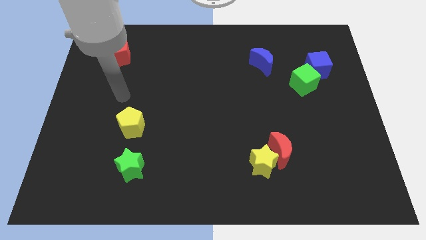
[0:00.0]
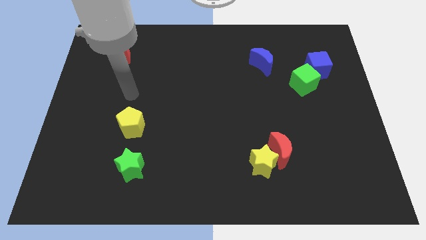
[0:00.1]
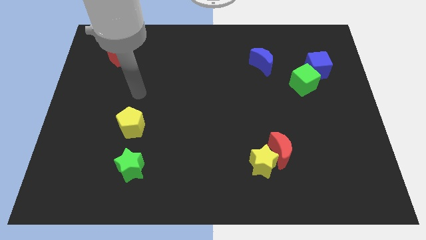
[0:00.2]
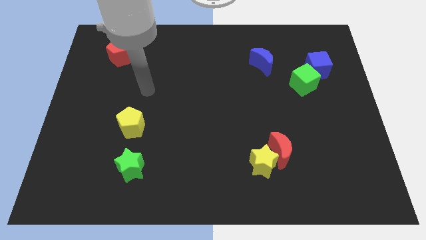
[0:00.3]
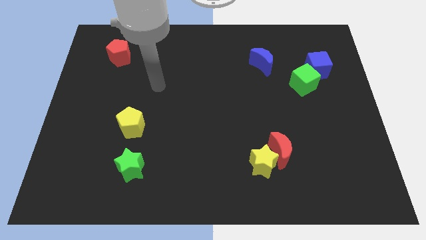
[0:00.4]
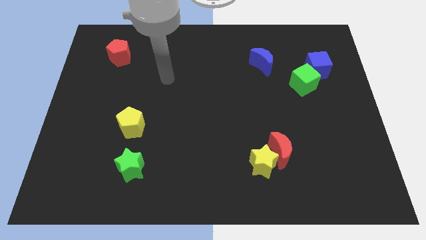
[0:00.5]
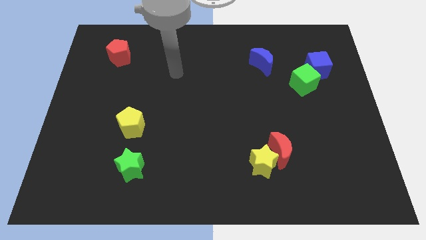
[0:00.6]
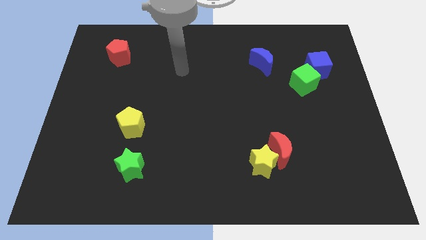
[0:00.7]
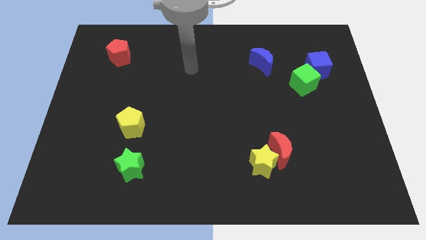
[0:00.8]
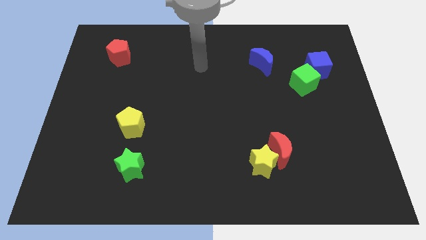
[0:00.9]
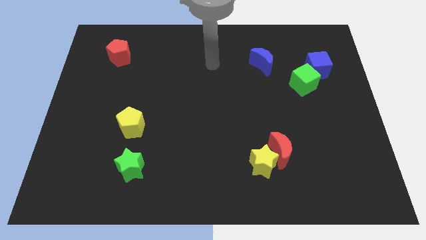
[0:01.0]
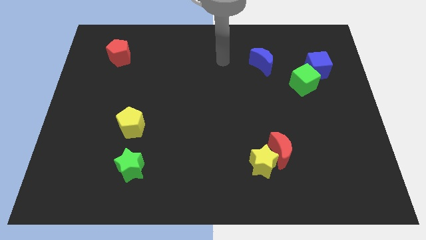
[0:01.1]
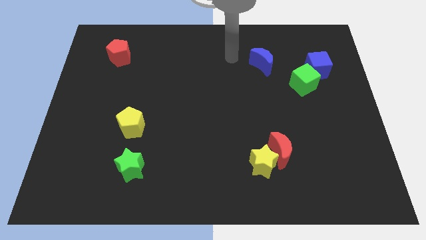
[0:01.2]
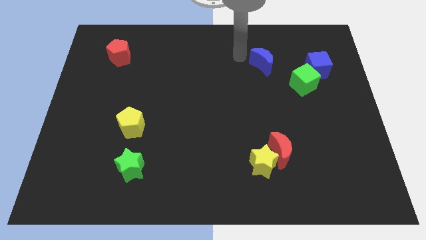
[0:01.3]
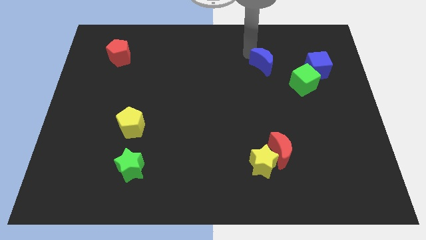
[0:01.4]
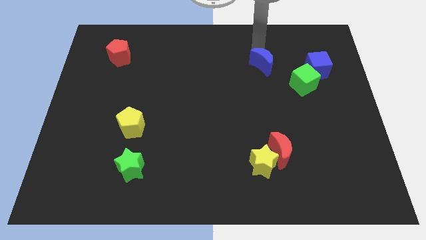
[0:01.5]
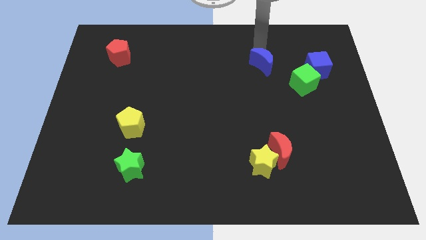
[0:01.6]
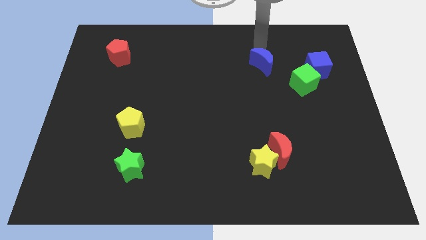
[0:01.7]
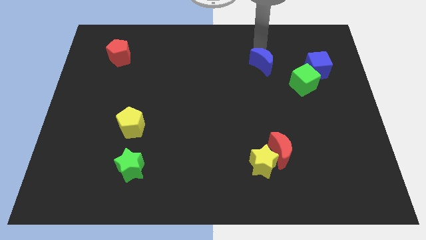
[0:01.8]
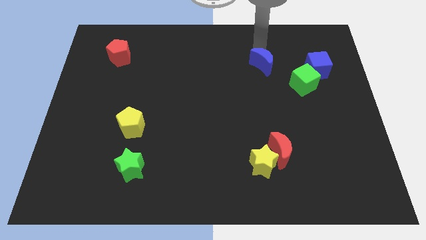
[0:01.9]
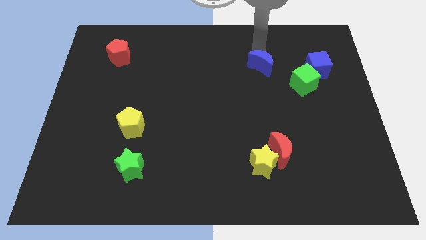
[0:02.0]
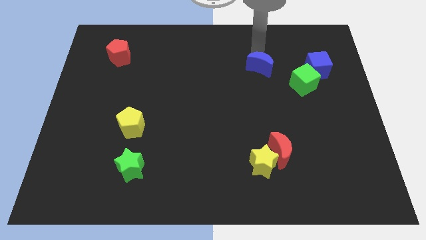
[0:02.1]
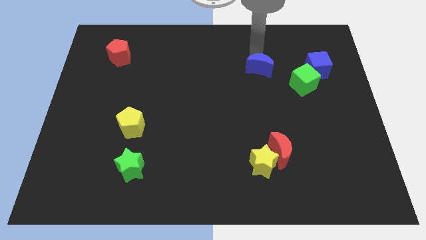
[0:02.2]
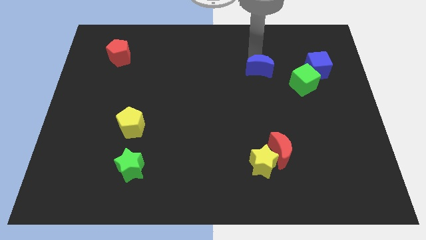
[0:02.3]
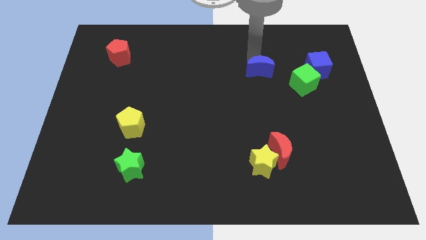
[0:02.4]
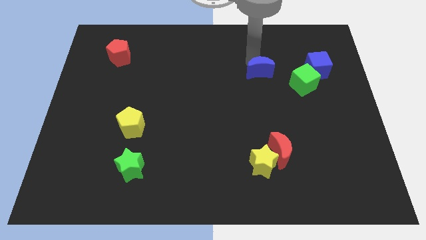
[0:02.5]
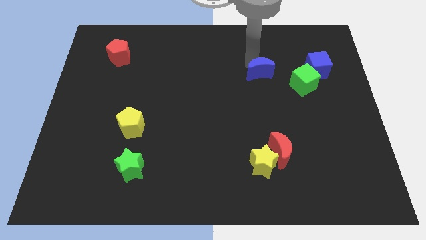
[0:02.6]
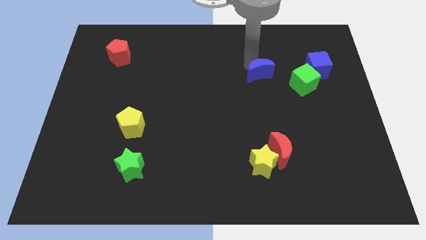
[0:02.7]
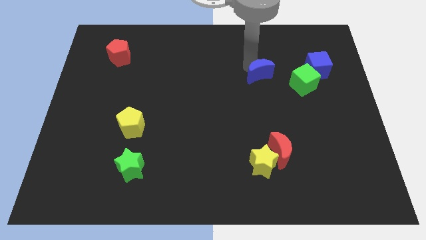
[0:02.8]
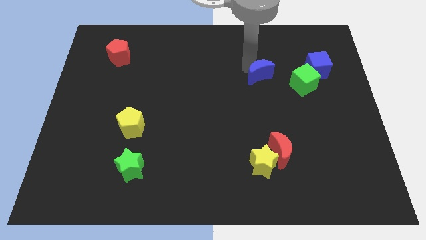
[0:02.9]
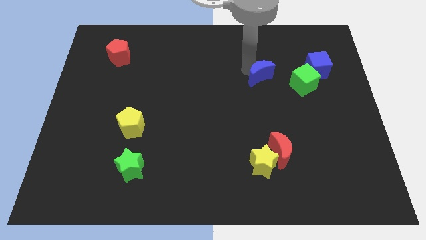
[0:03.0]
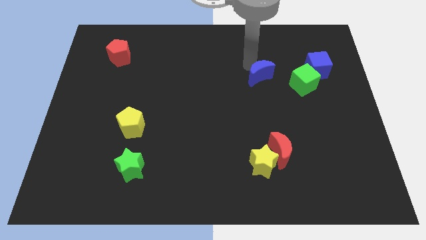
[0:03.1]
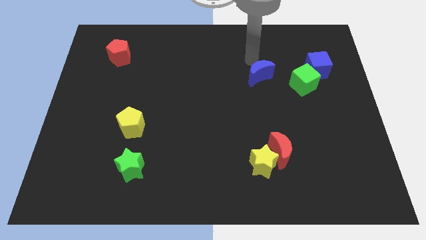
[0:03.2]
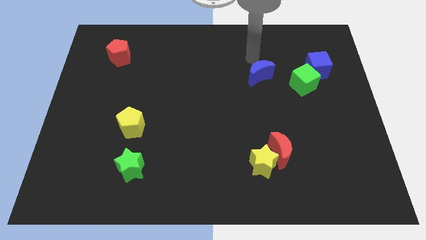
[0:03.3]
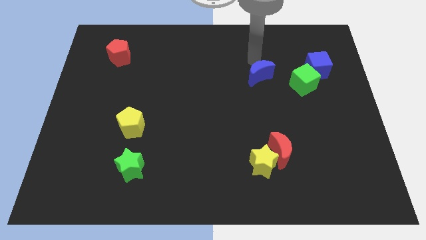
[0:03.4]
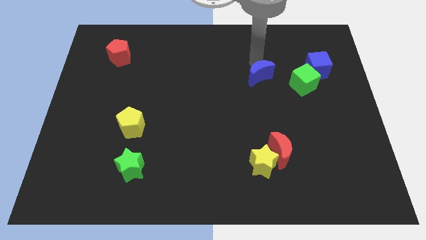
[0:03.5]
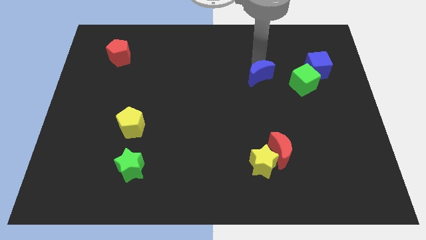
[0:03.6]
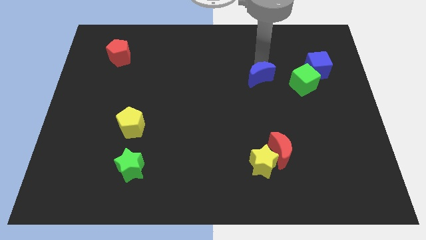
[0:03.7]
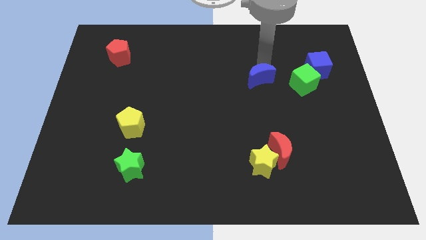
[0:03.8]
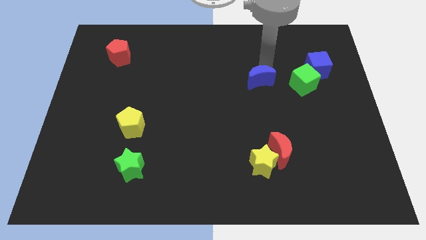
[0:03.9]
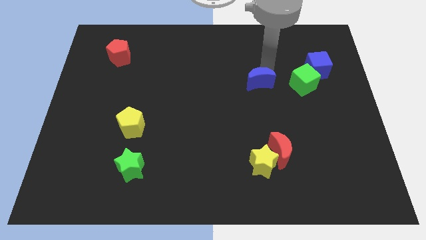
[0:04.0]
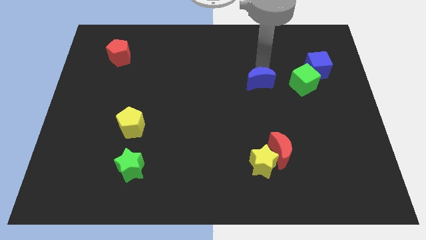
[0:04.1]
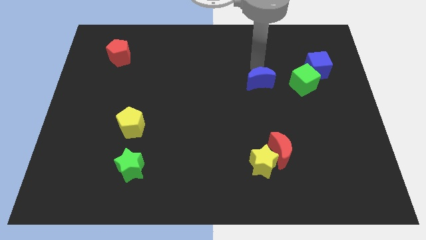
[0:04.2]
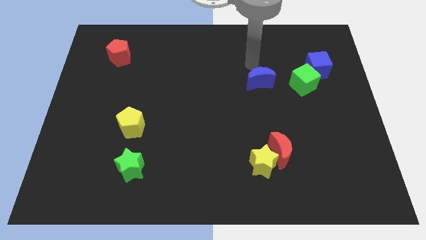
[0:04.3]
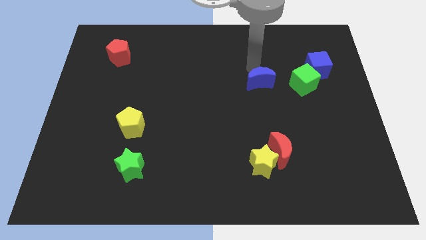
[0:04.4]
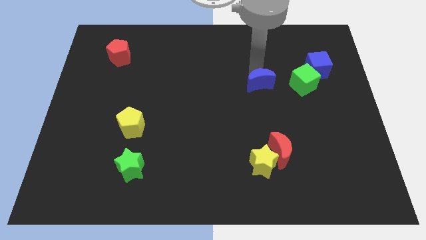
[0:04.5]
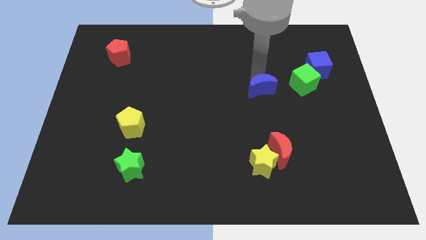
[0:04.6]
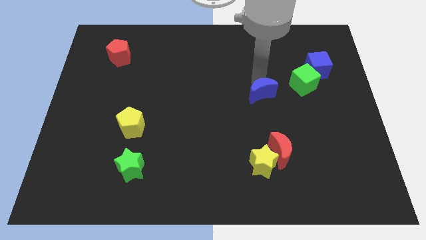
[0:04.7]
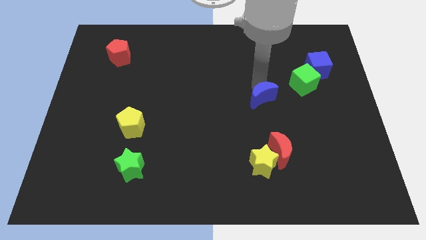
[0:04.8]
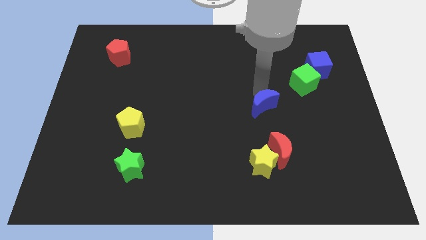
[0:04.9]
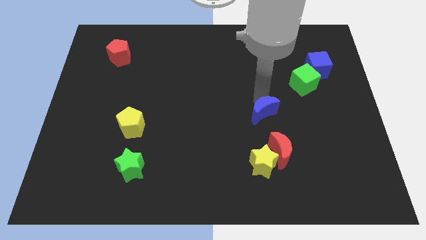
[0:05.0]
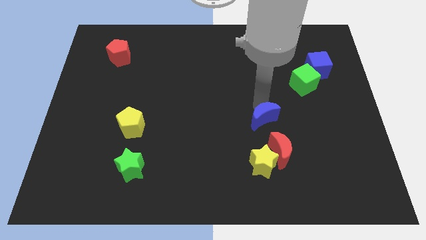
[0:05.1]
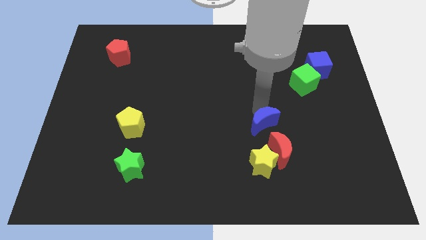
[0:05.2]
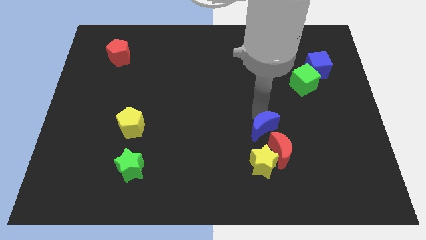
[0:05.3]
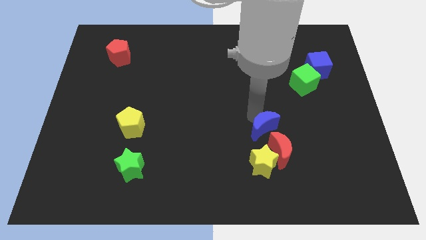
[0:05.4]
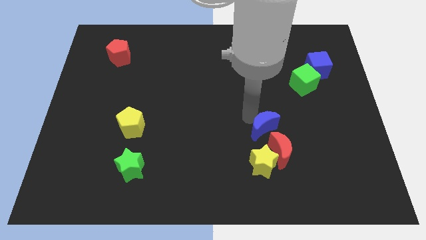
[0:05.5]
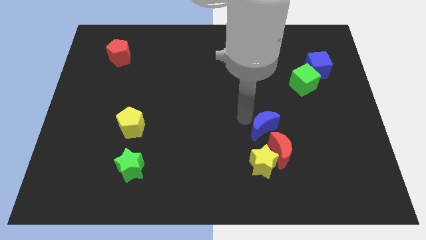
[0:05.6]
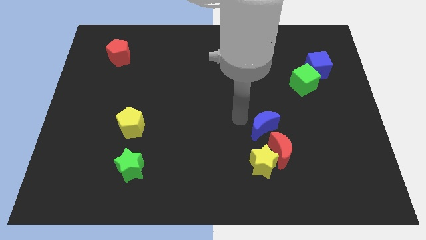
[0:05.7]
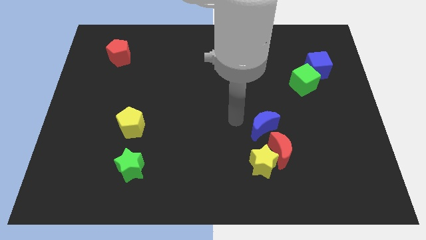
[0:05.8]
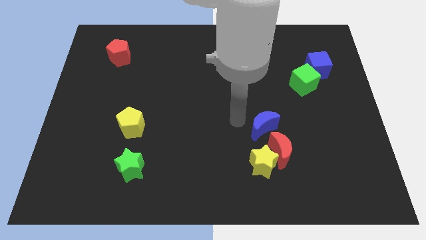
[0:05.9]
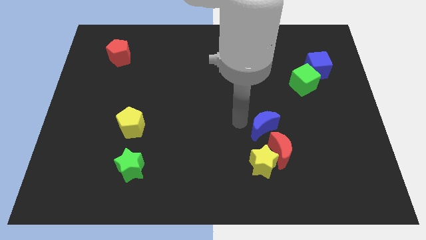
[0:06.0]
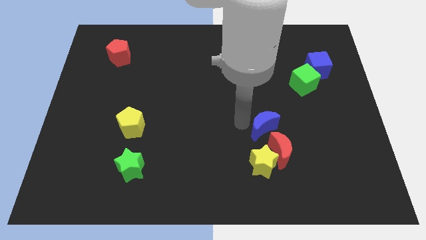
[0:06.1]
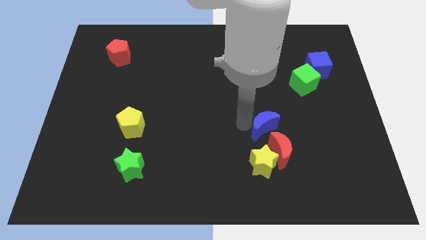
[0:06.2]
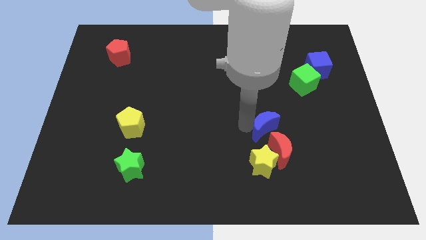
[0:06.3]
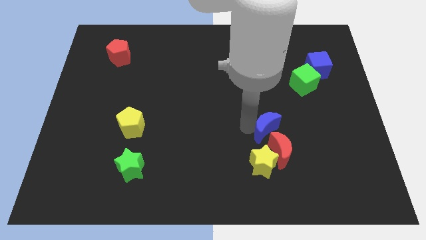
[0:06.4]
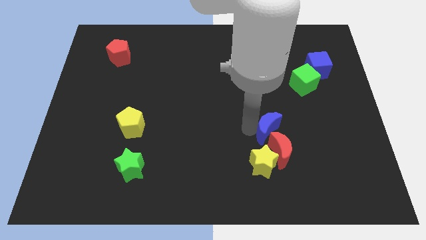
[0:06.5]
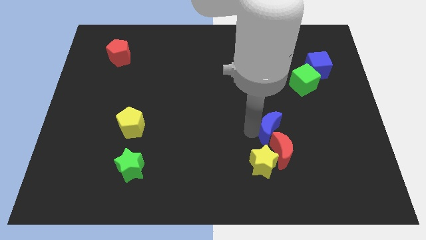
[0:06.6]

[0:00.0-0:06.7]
move the blue moon next to the red moon
